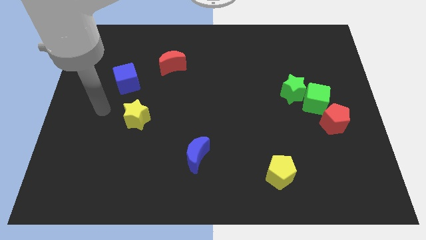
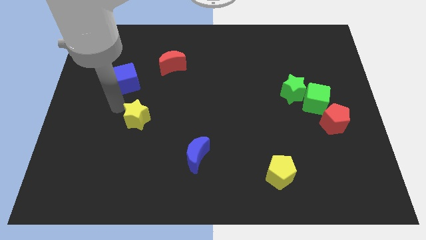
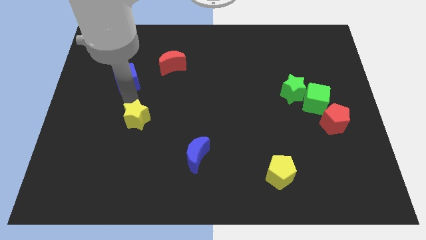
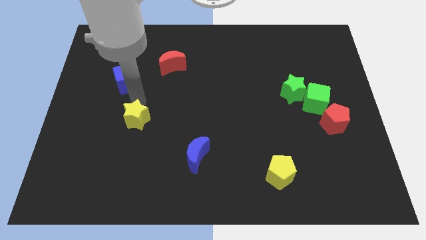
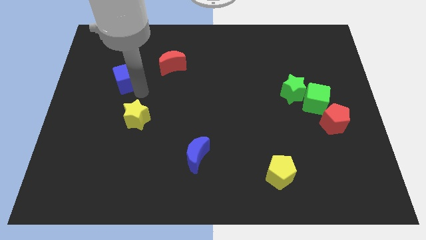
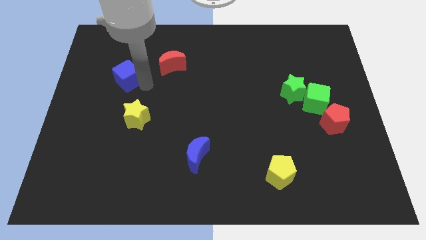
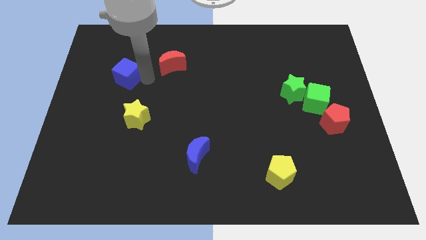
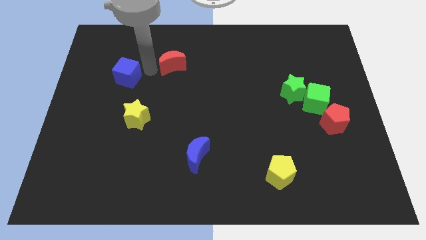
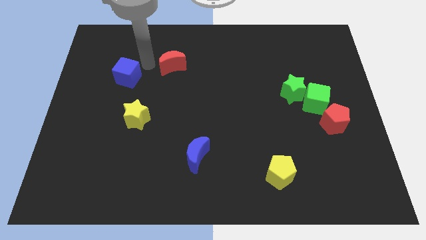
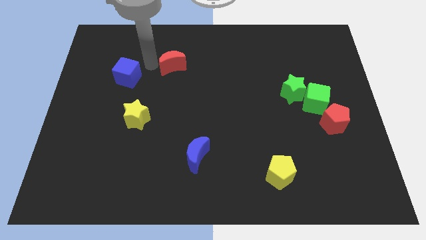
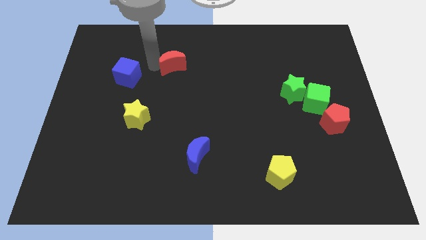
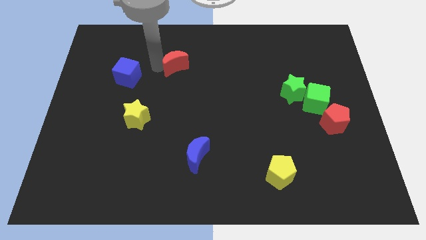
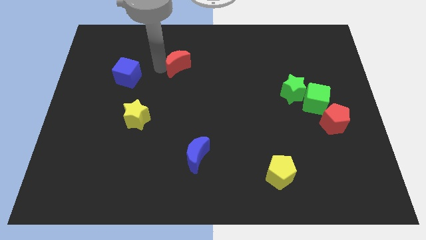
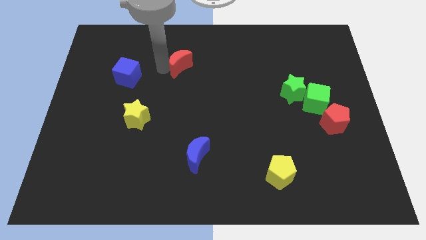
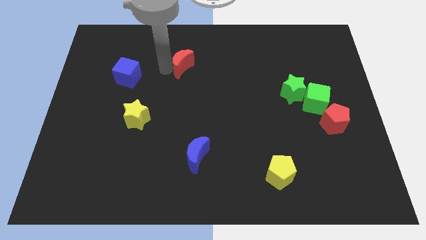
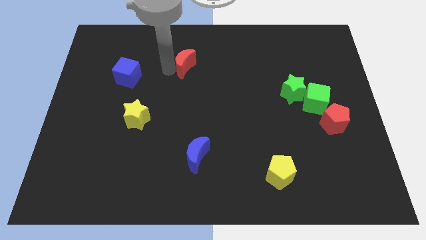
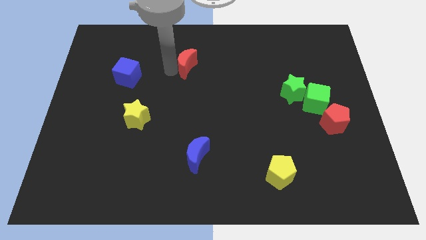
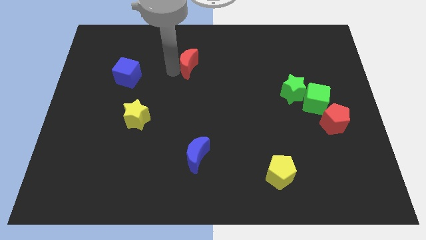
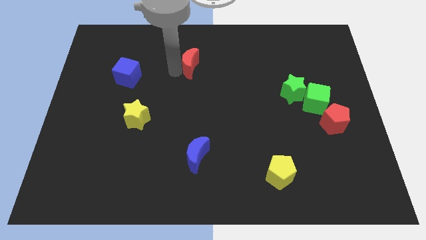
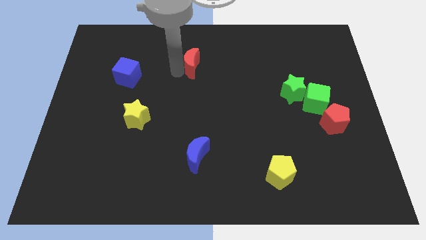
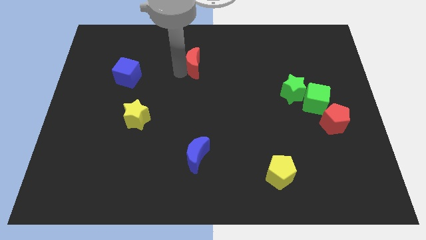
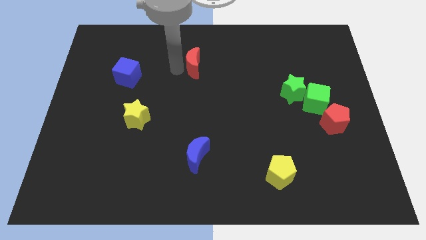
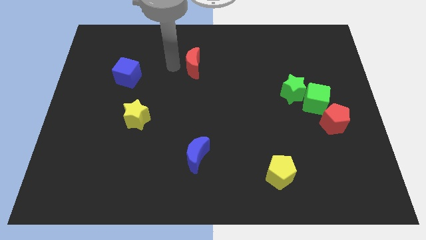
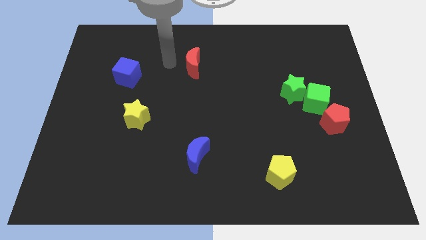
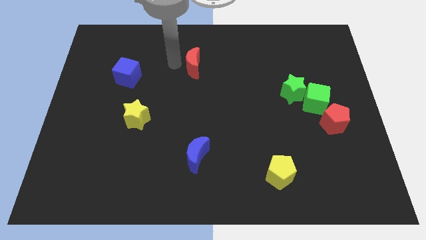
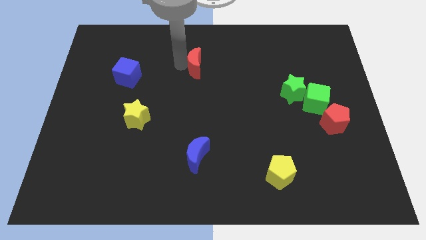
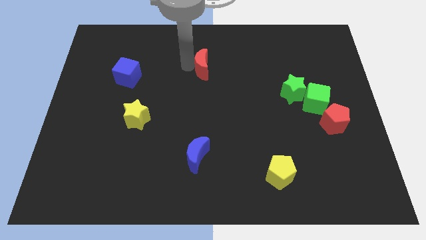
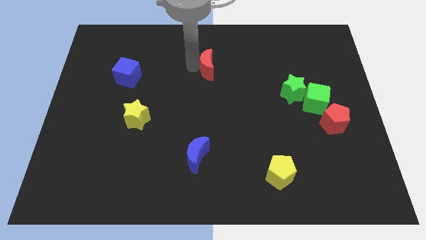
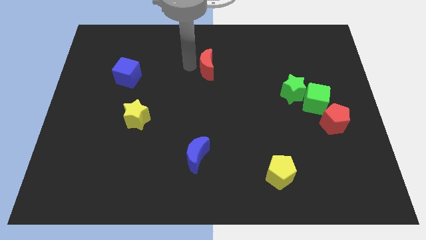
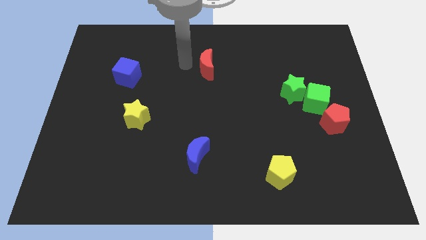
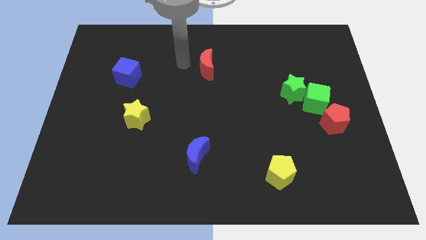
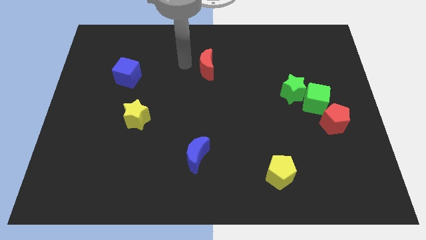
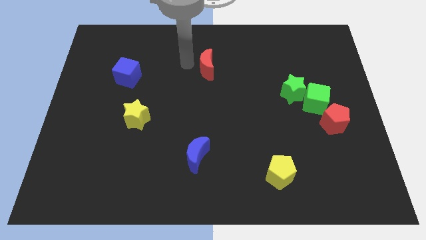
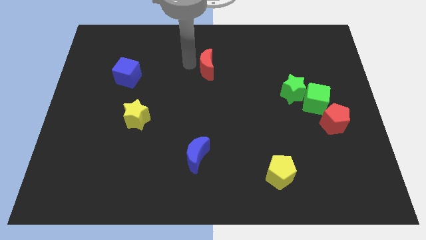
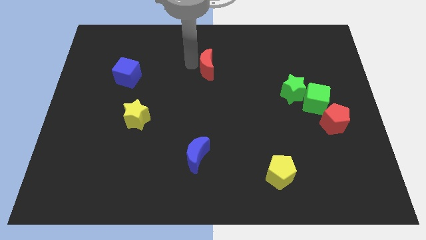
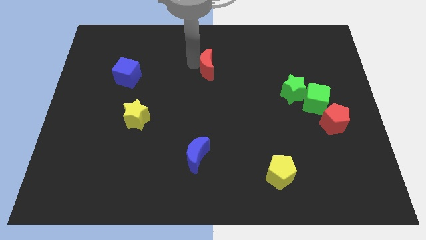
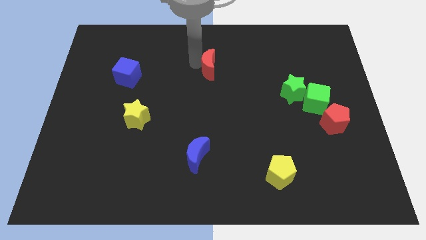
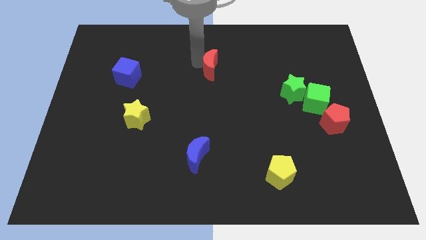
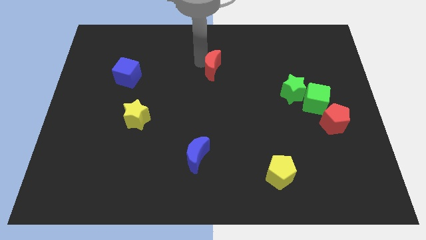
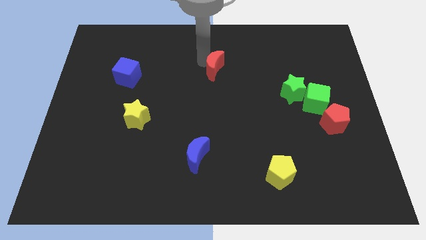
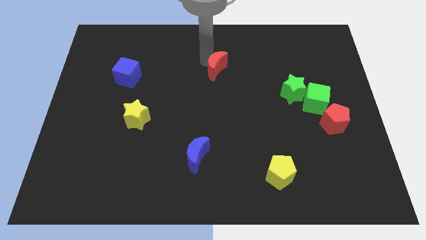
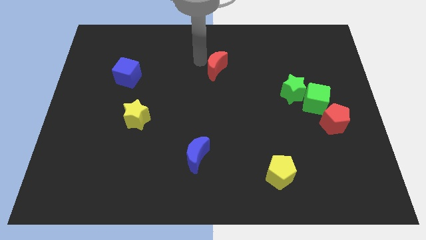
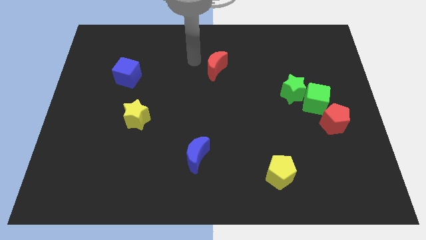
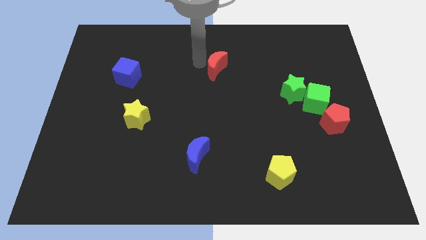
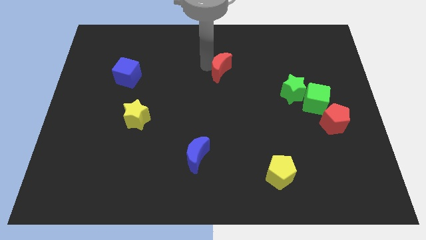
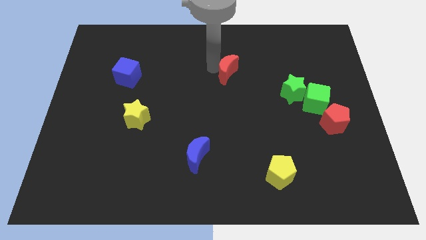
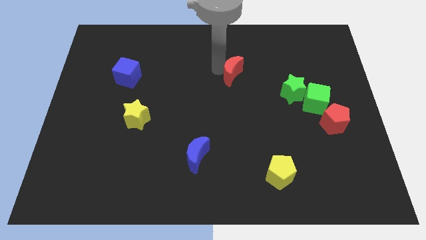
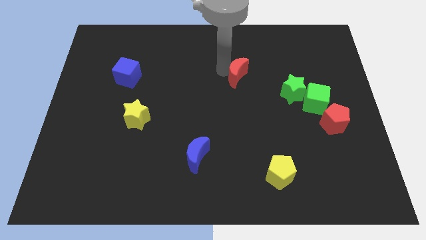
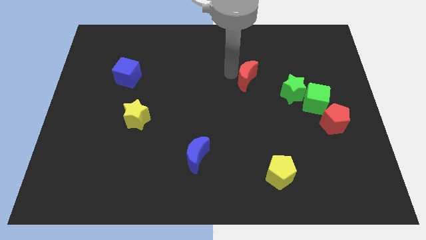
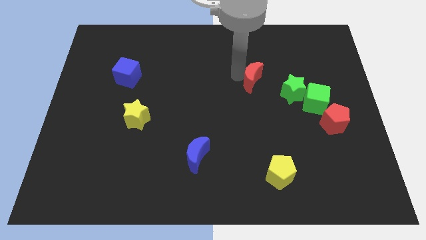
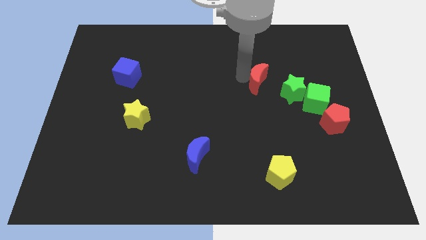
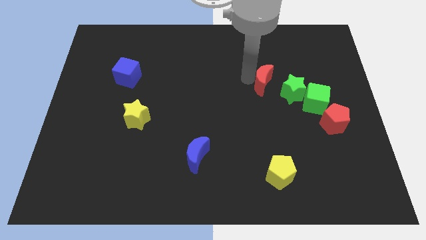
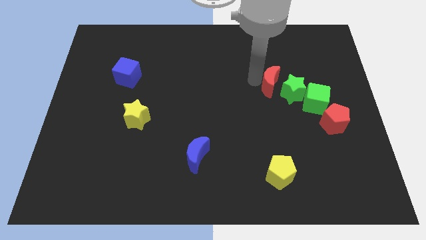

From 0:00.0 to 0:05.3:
push the red moon next to the green star

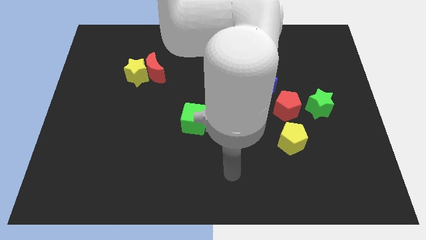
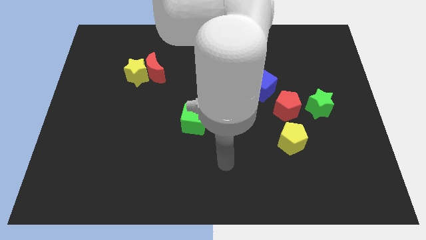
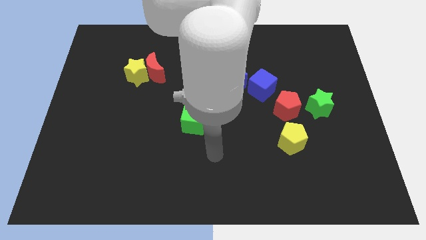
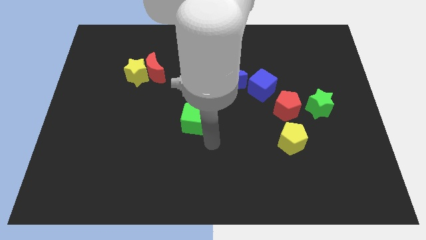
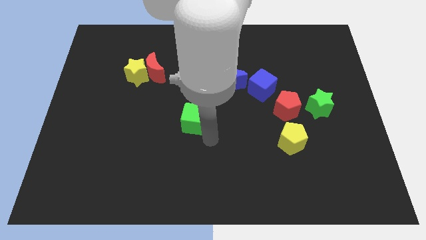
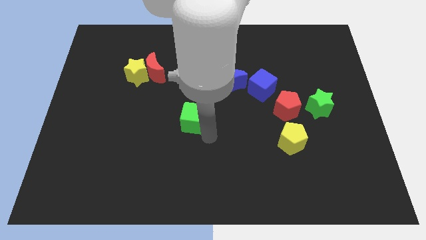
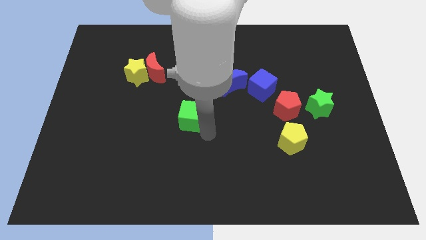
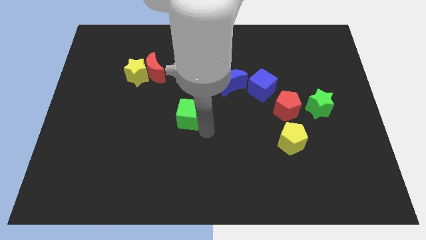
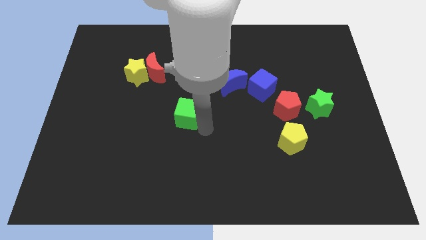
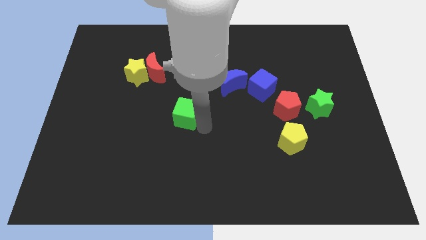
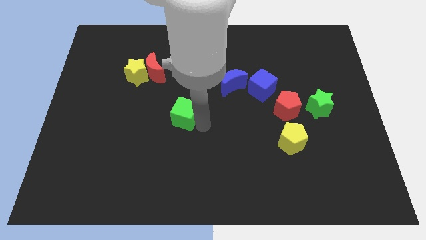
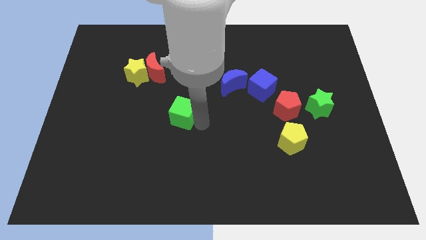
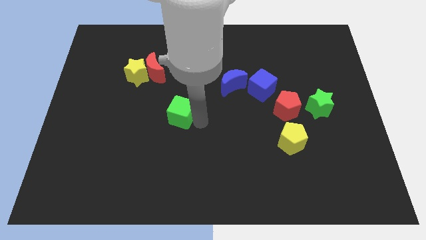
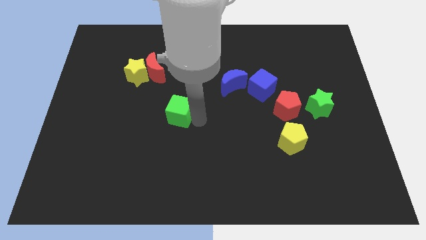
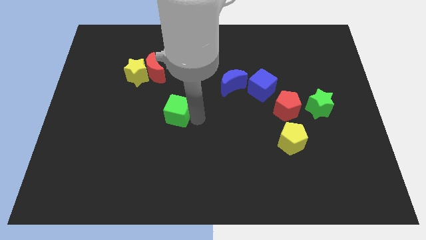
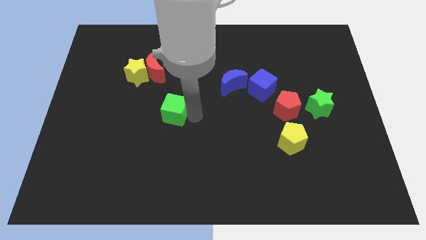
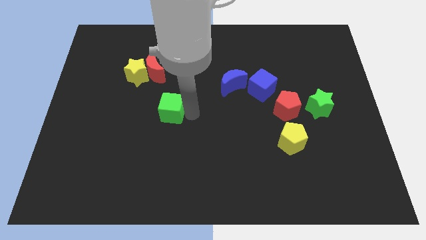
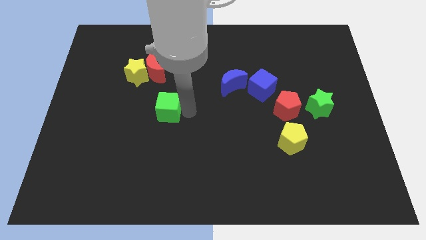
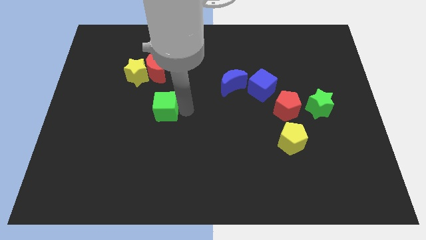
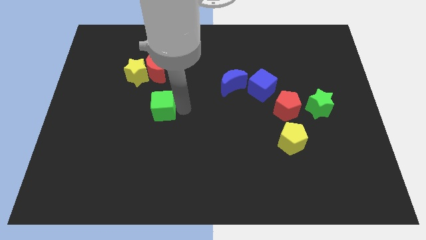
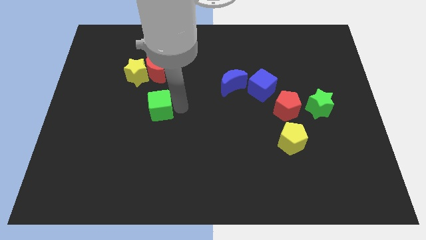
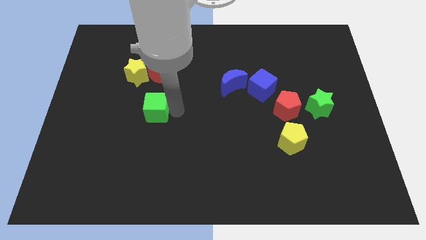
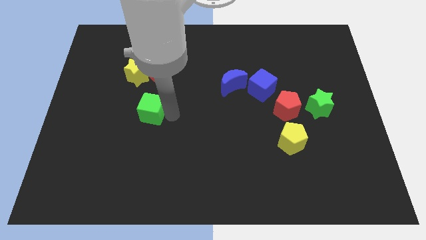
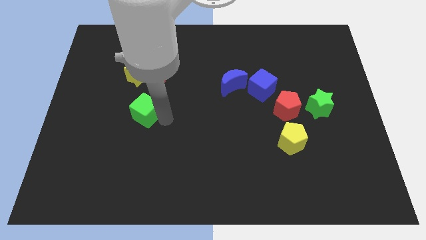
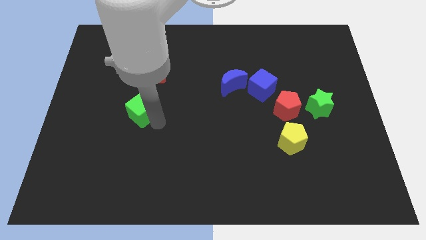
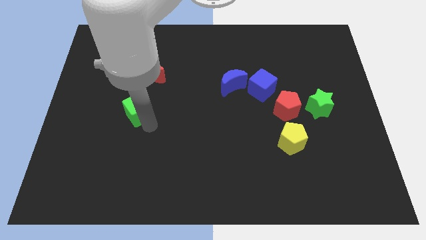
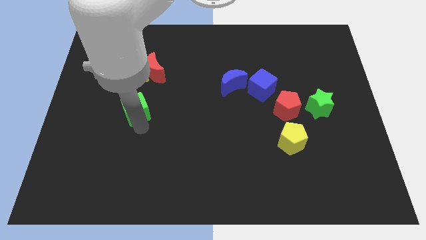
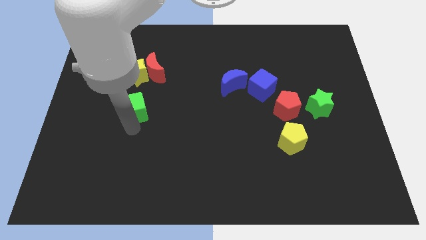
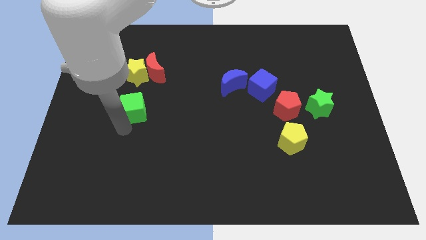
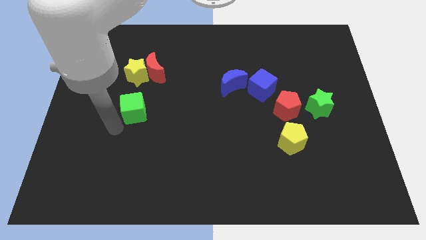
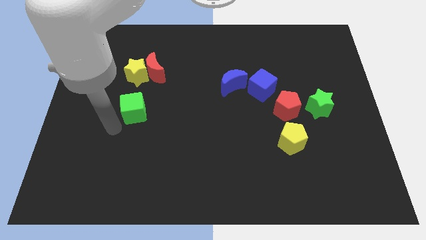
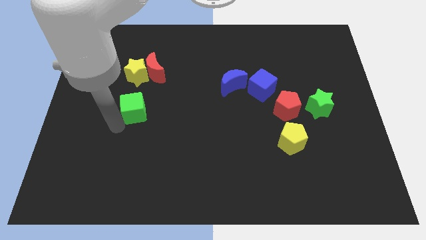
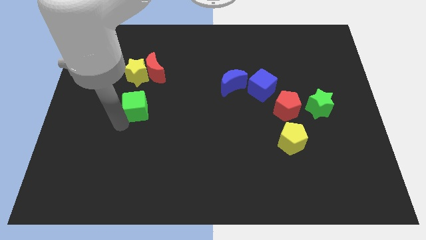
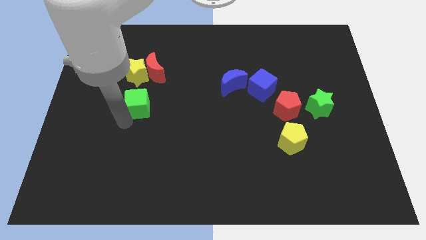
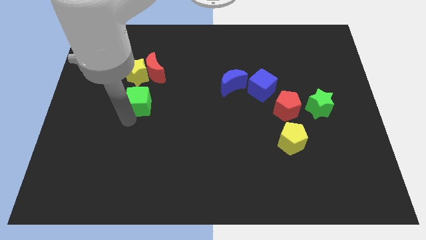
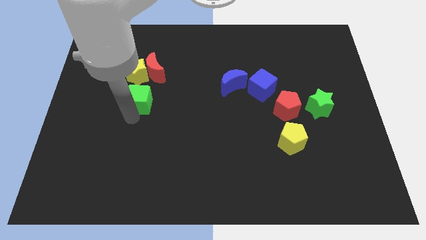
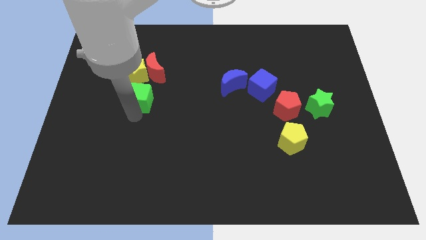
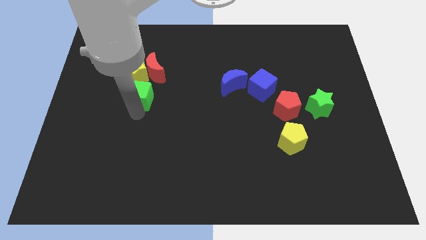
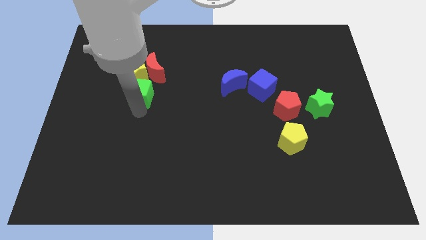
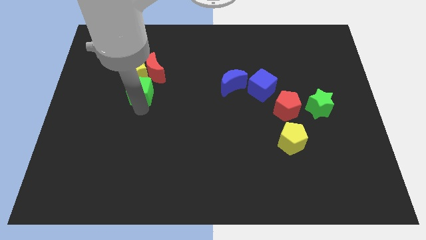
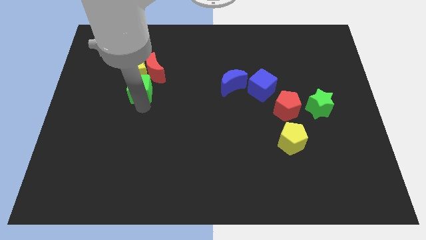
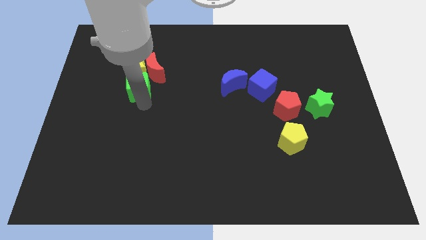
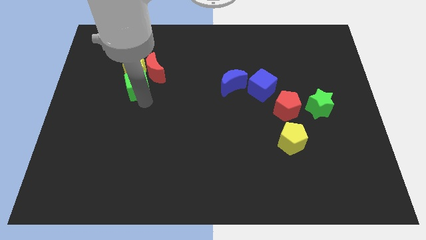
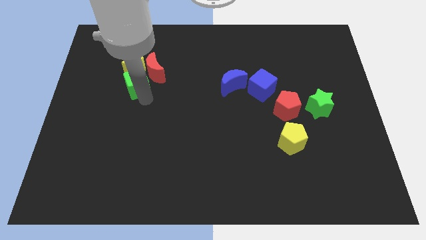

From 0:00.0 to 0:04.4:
move the green cube towards the red moon
